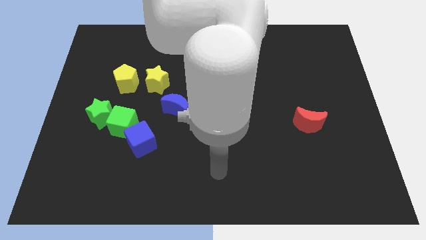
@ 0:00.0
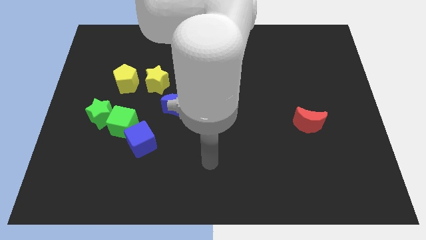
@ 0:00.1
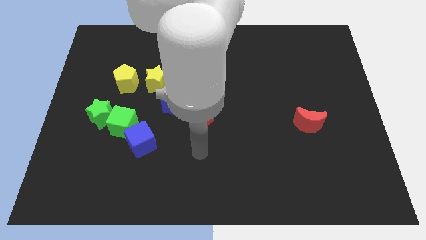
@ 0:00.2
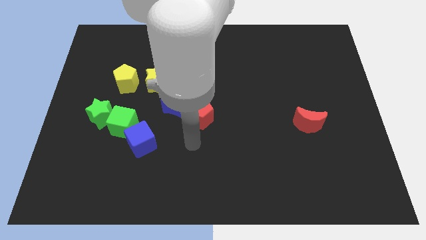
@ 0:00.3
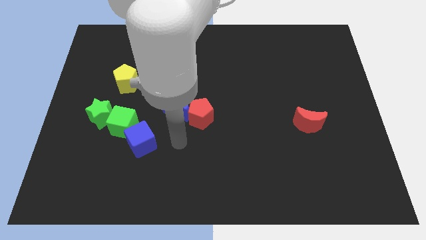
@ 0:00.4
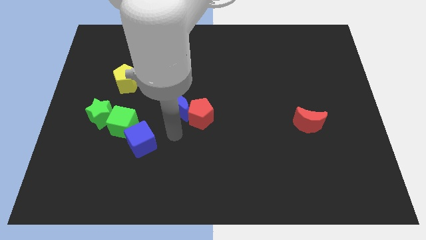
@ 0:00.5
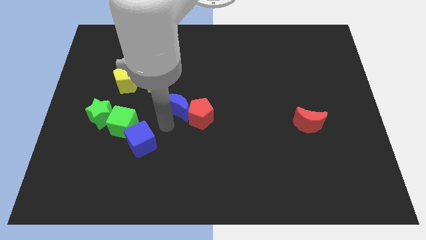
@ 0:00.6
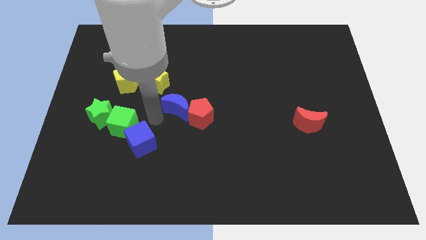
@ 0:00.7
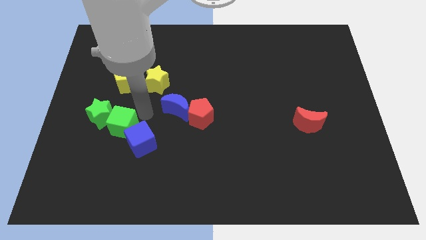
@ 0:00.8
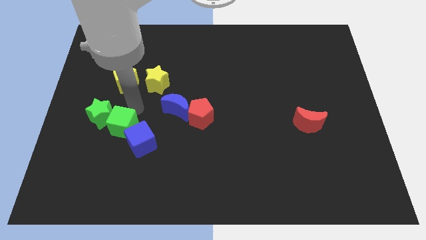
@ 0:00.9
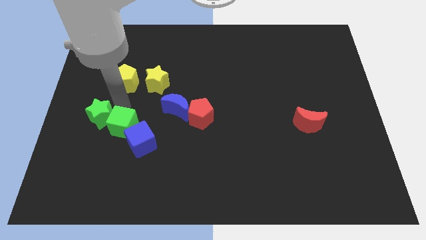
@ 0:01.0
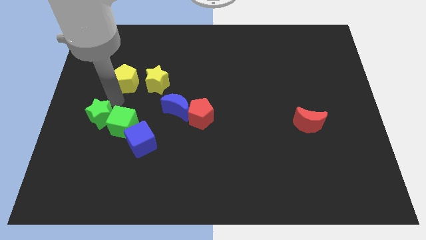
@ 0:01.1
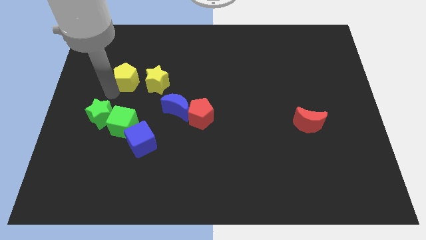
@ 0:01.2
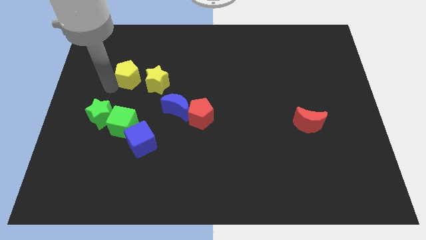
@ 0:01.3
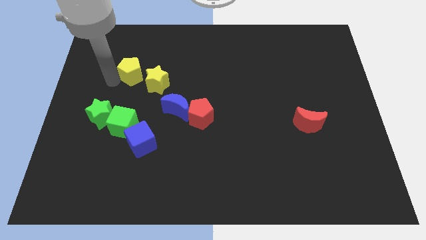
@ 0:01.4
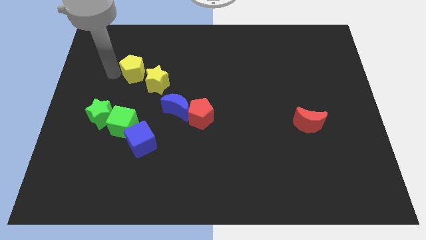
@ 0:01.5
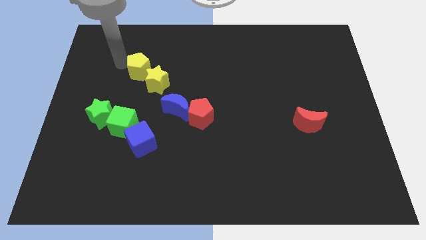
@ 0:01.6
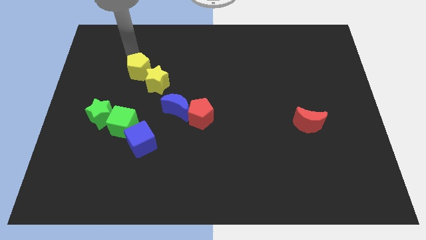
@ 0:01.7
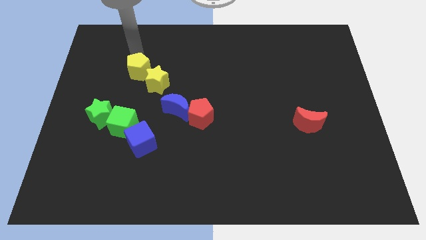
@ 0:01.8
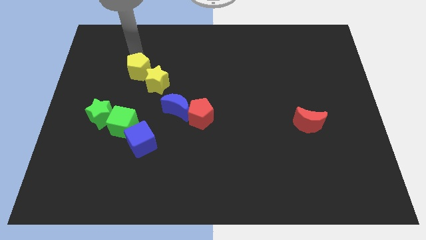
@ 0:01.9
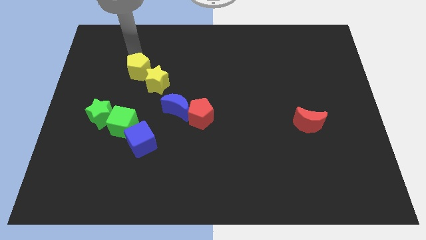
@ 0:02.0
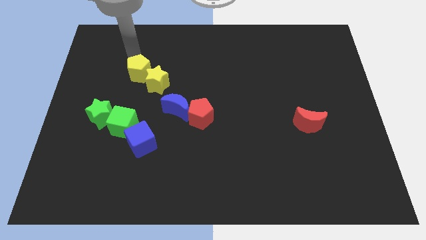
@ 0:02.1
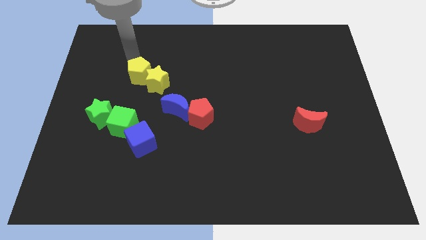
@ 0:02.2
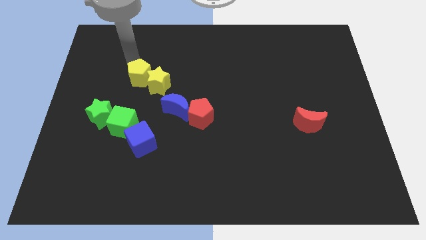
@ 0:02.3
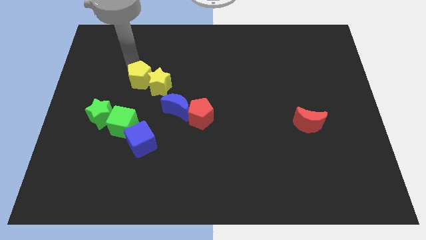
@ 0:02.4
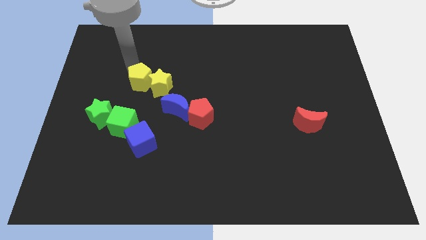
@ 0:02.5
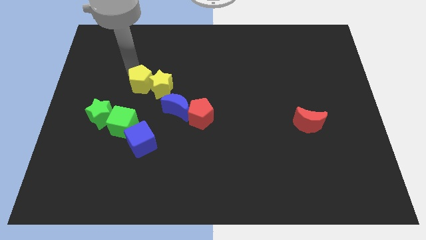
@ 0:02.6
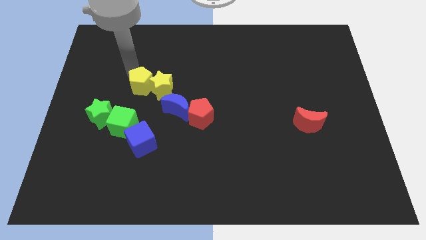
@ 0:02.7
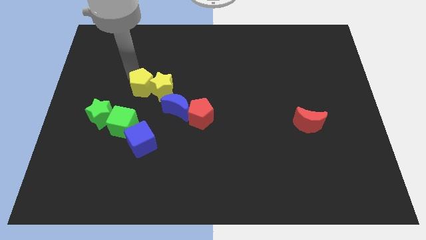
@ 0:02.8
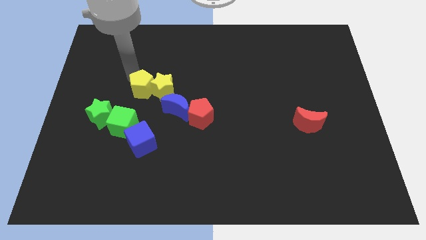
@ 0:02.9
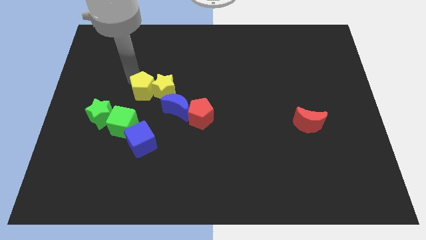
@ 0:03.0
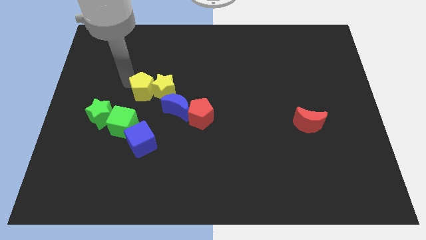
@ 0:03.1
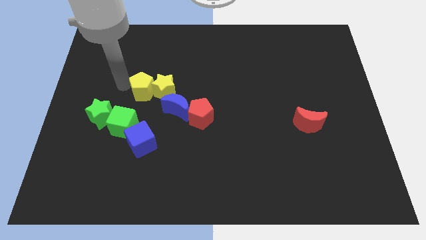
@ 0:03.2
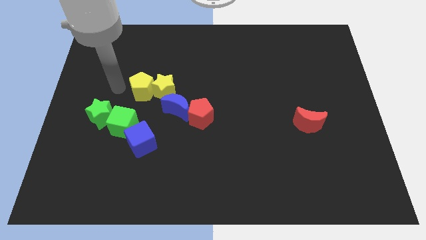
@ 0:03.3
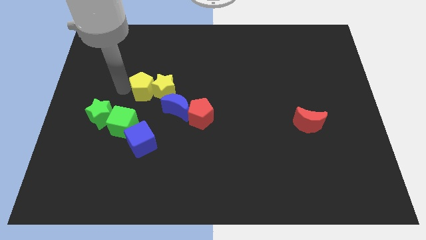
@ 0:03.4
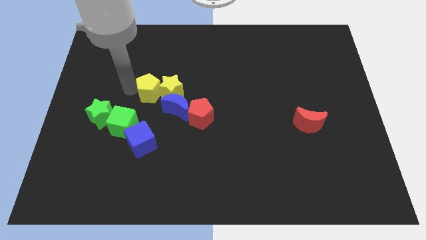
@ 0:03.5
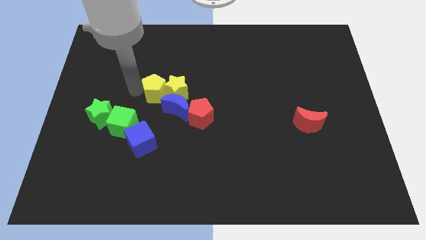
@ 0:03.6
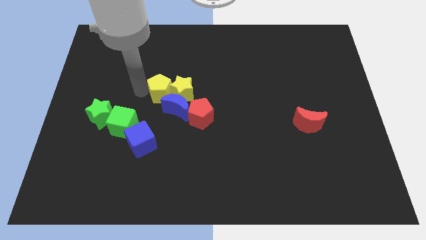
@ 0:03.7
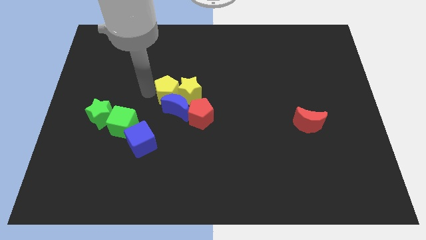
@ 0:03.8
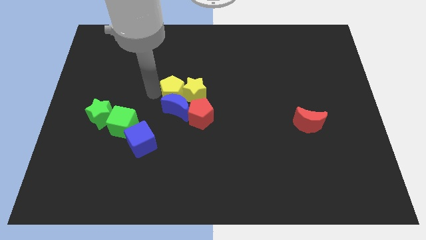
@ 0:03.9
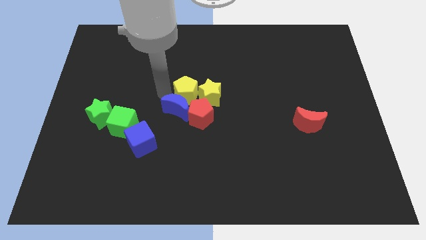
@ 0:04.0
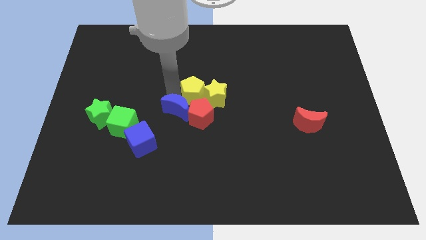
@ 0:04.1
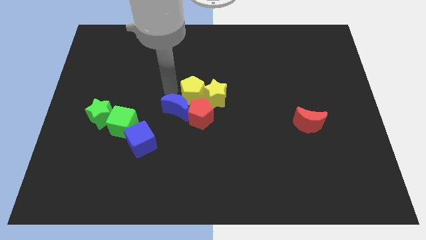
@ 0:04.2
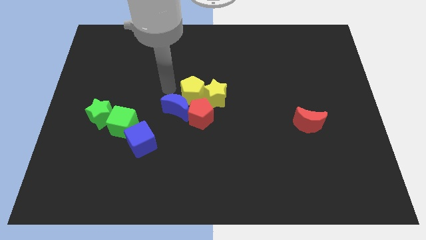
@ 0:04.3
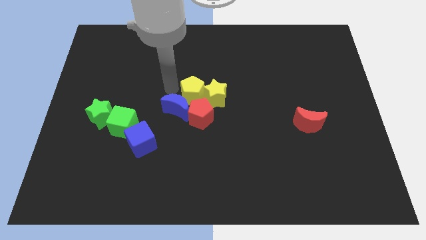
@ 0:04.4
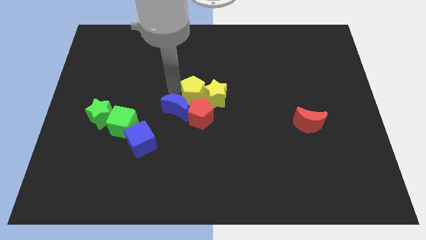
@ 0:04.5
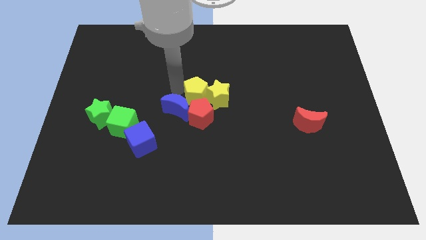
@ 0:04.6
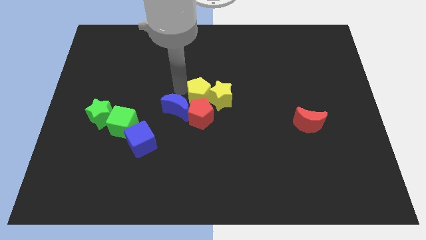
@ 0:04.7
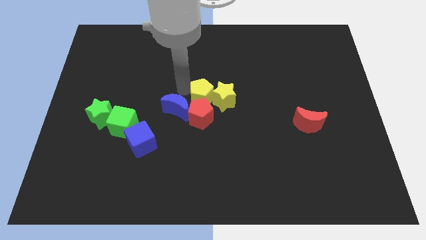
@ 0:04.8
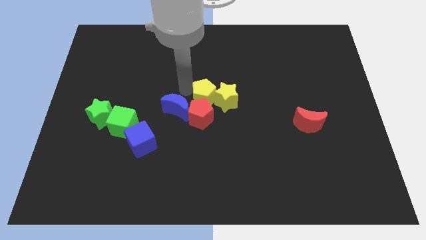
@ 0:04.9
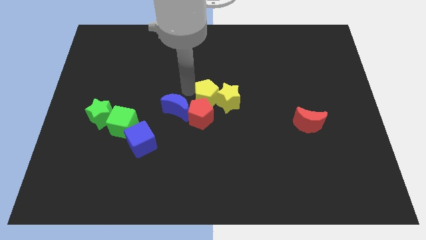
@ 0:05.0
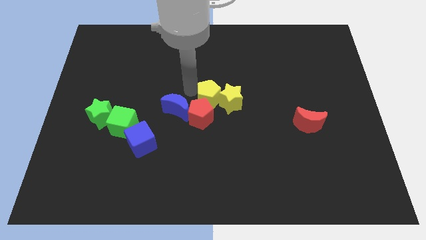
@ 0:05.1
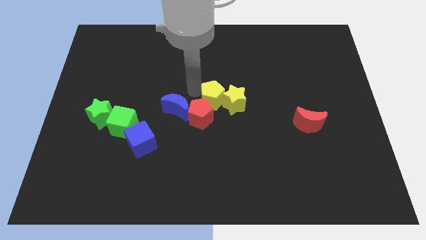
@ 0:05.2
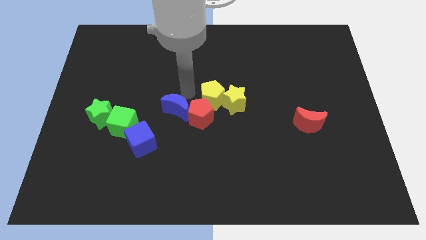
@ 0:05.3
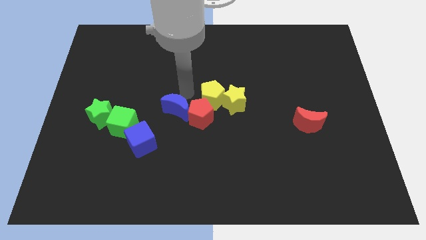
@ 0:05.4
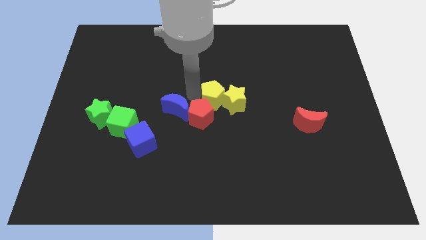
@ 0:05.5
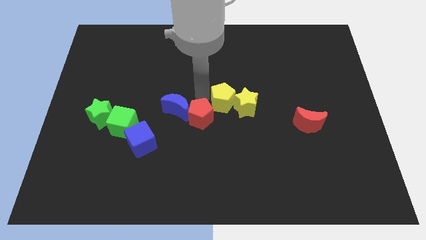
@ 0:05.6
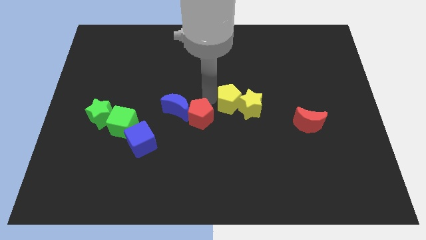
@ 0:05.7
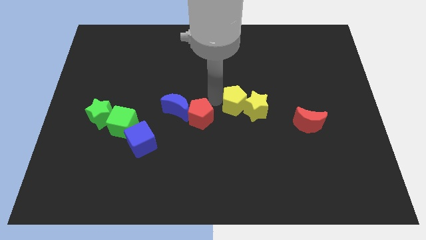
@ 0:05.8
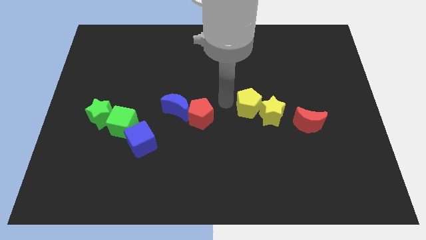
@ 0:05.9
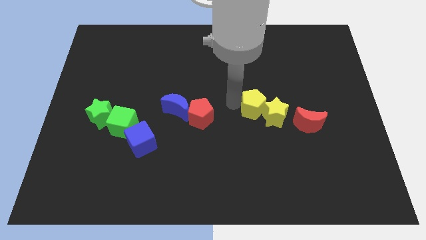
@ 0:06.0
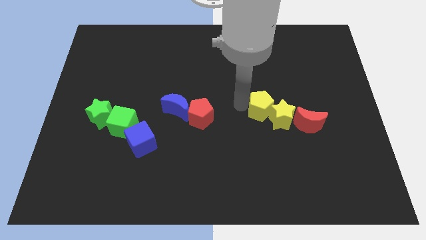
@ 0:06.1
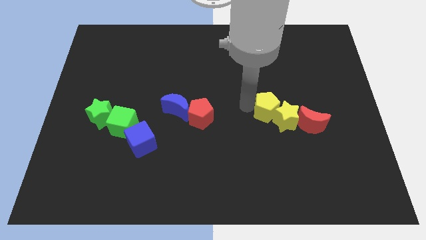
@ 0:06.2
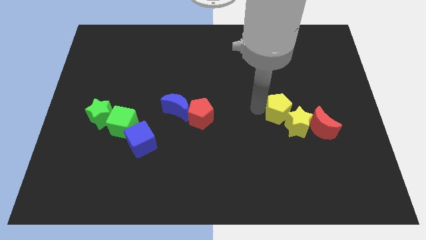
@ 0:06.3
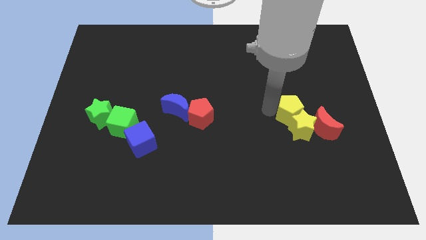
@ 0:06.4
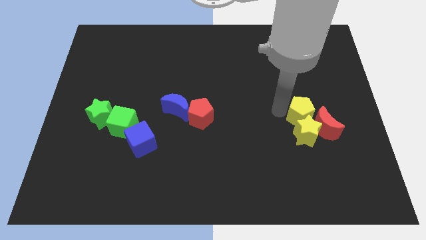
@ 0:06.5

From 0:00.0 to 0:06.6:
move the yellow pentagon towards the red moon
